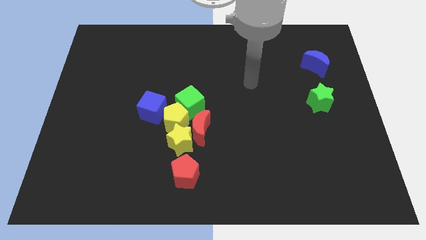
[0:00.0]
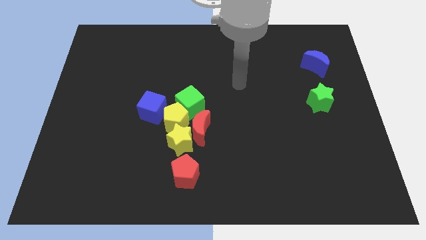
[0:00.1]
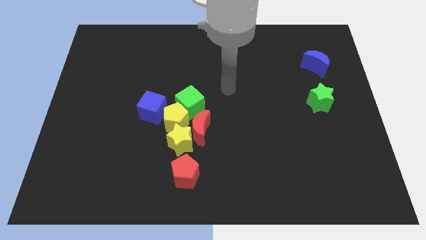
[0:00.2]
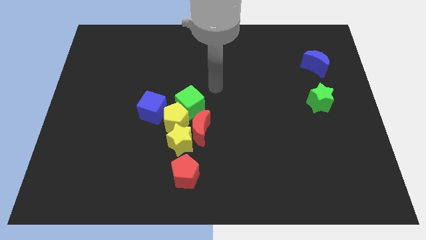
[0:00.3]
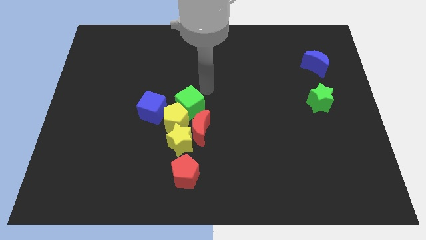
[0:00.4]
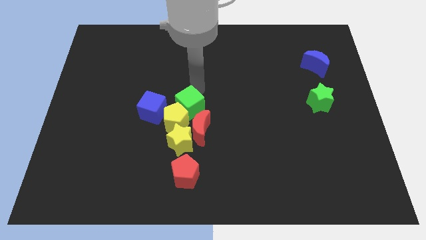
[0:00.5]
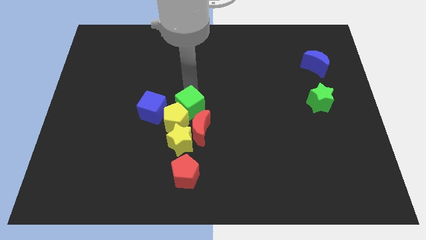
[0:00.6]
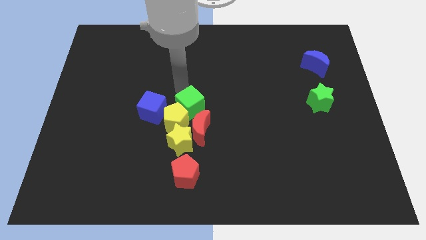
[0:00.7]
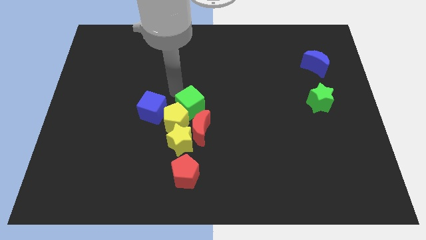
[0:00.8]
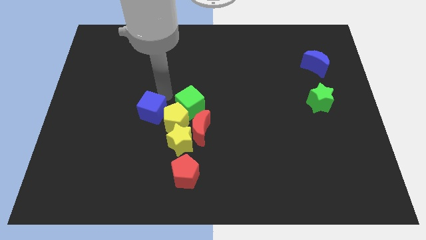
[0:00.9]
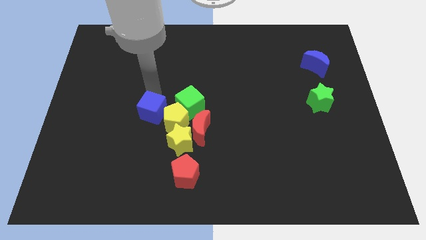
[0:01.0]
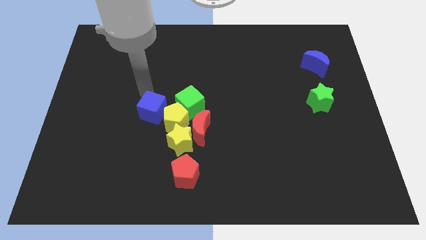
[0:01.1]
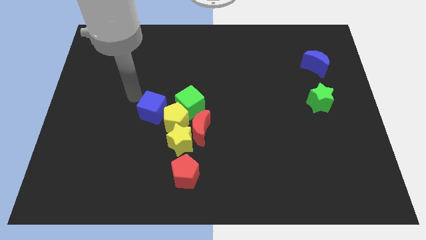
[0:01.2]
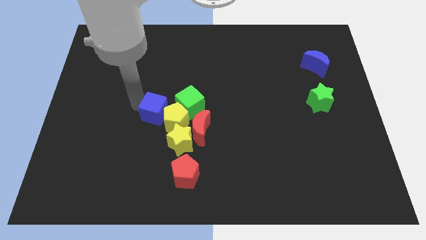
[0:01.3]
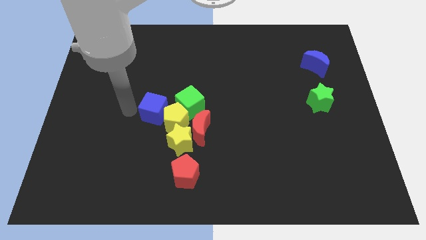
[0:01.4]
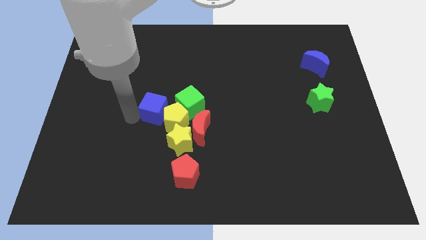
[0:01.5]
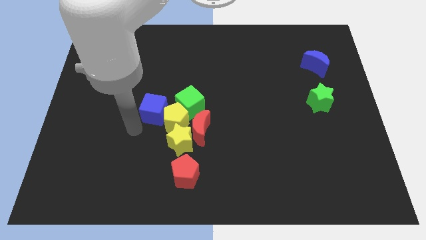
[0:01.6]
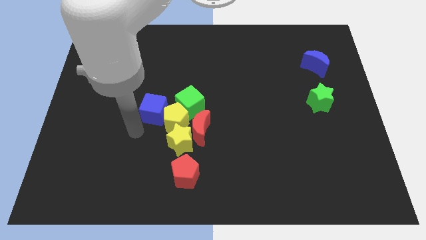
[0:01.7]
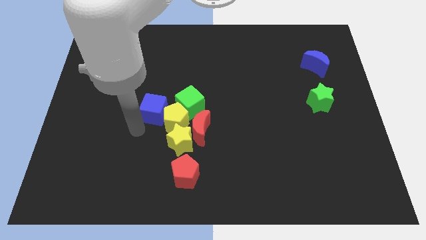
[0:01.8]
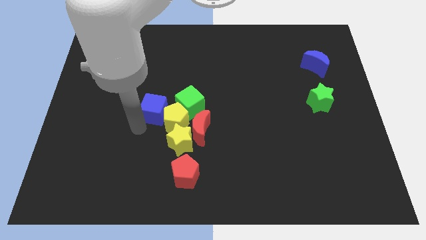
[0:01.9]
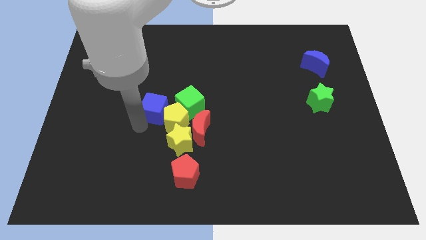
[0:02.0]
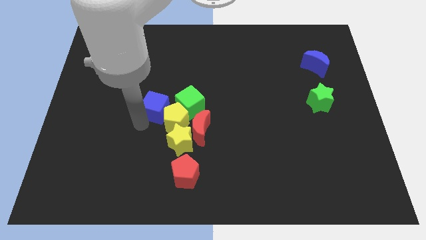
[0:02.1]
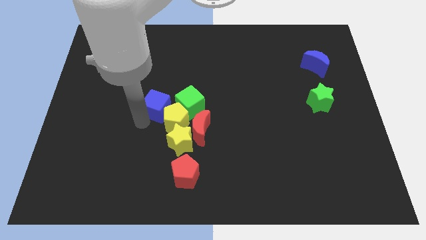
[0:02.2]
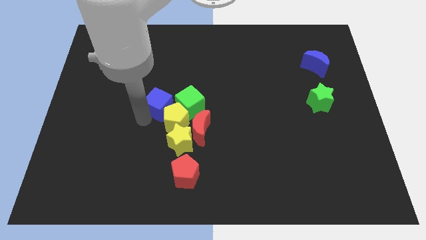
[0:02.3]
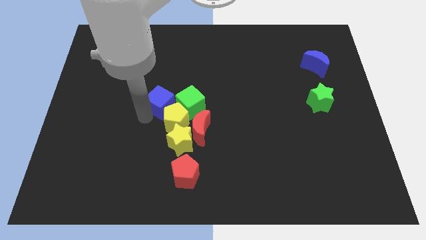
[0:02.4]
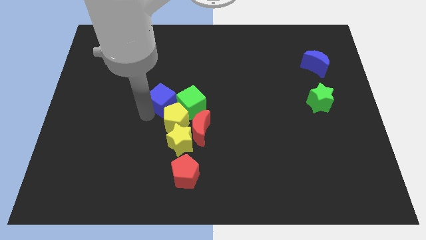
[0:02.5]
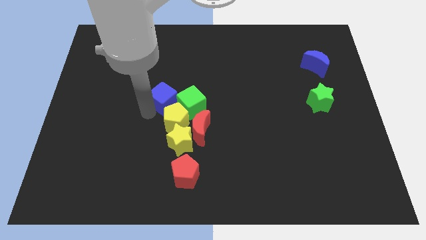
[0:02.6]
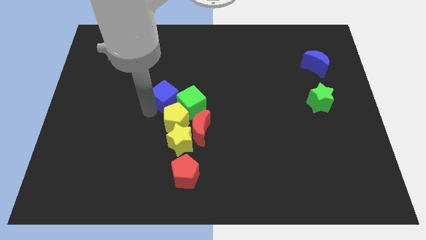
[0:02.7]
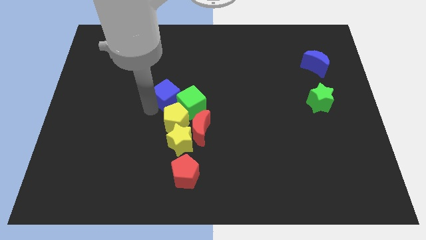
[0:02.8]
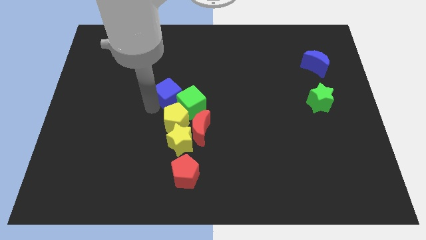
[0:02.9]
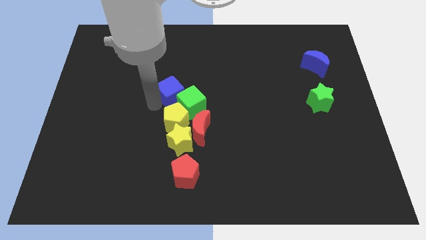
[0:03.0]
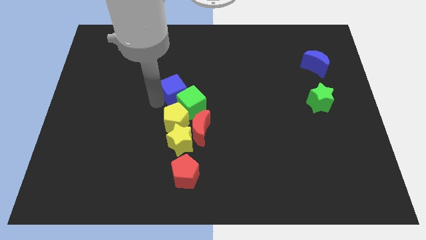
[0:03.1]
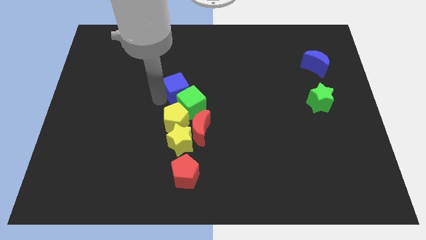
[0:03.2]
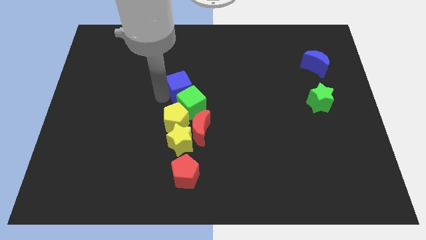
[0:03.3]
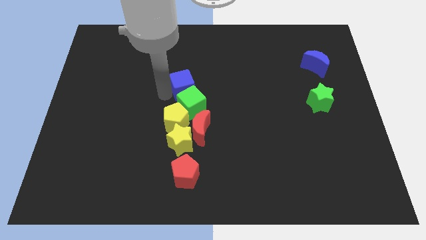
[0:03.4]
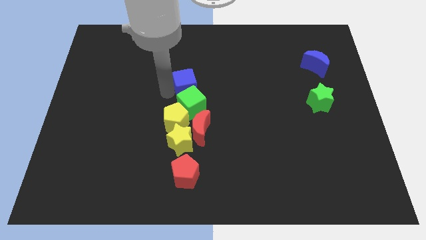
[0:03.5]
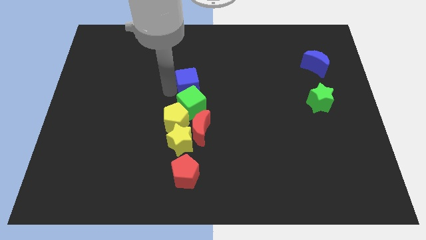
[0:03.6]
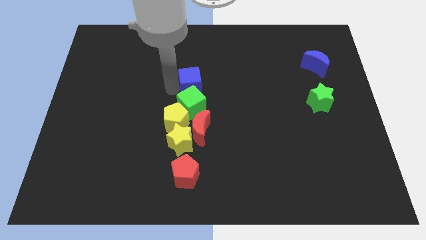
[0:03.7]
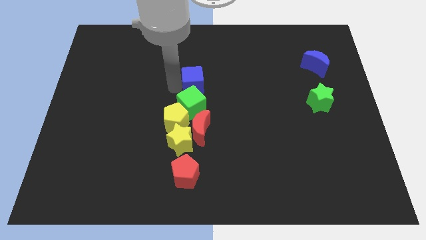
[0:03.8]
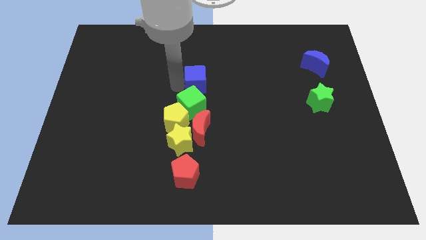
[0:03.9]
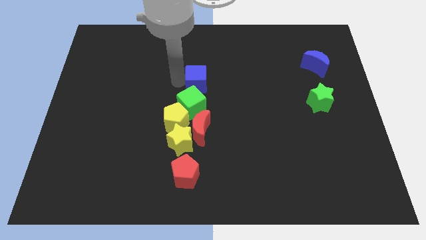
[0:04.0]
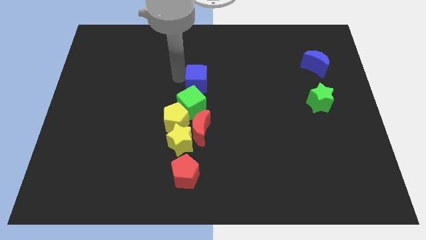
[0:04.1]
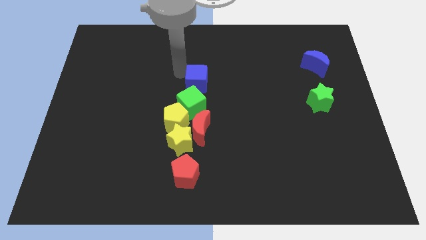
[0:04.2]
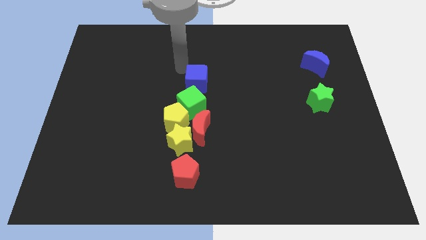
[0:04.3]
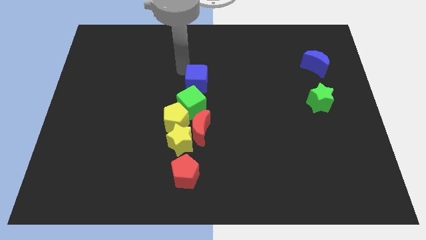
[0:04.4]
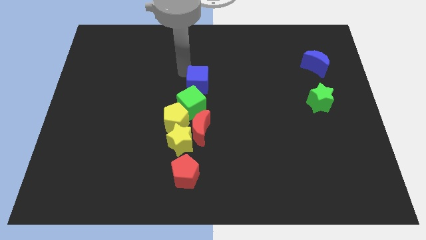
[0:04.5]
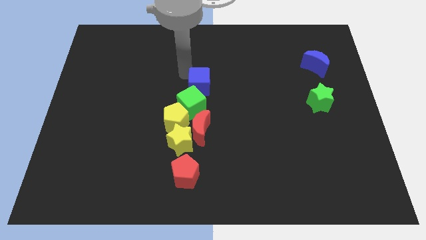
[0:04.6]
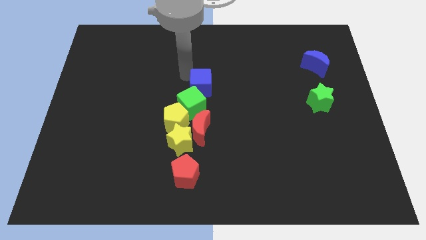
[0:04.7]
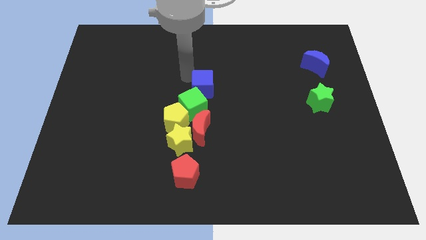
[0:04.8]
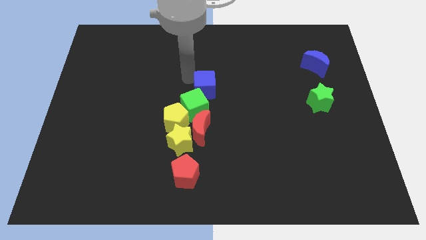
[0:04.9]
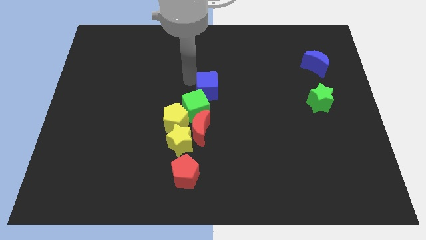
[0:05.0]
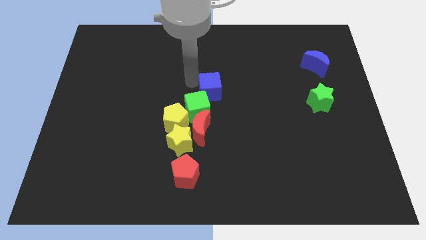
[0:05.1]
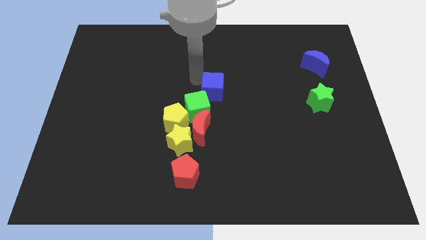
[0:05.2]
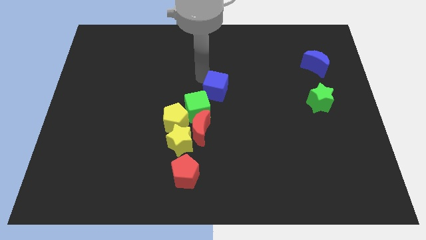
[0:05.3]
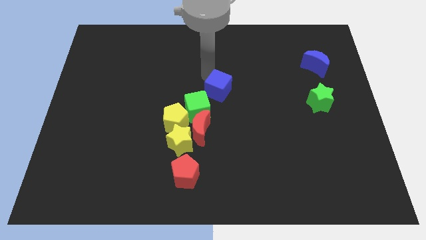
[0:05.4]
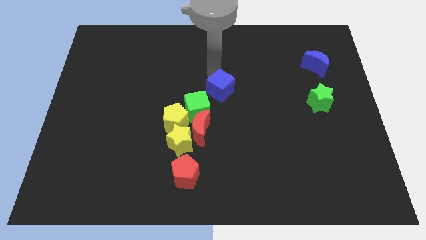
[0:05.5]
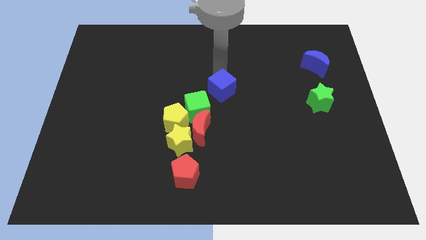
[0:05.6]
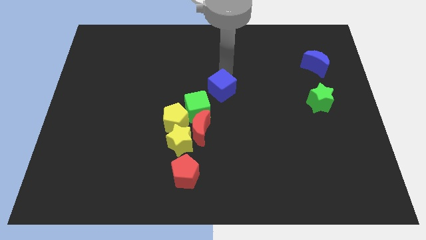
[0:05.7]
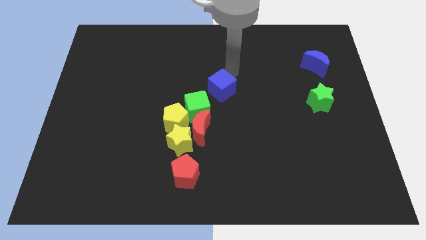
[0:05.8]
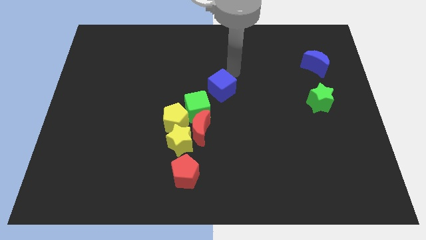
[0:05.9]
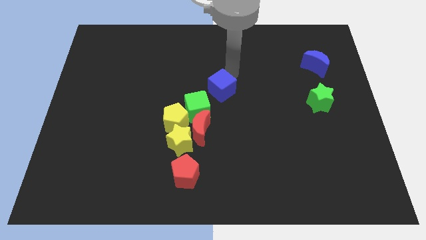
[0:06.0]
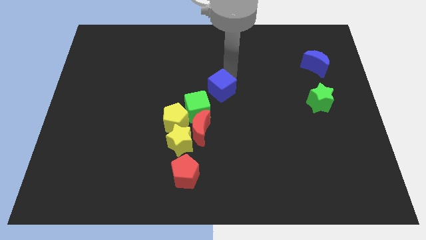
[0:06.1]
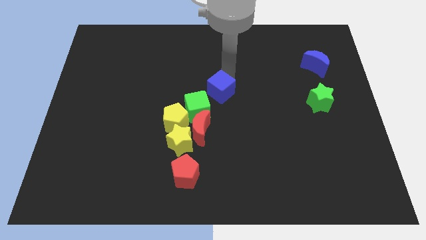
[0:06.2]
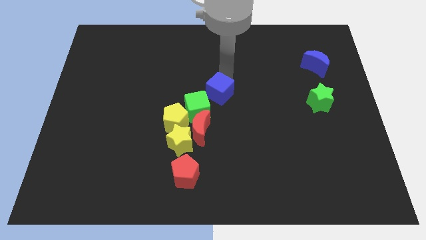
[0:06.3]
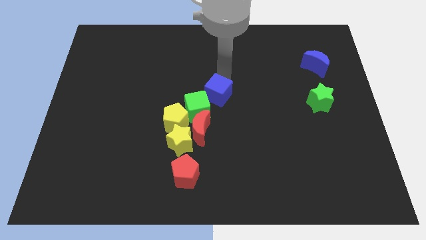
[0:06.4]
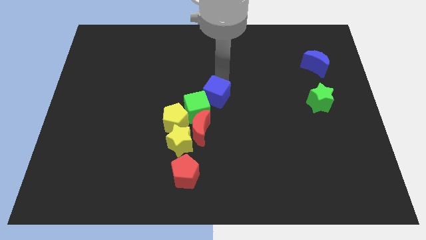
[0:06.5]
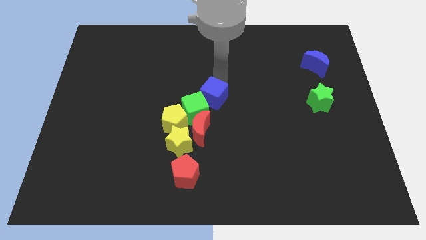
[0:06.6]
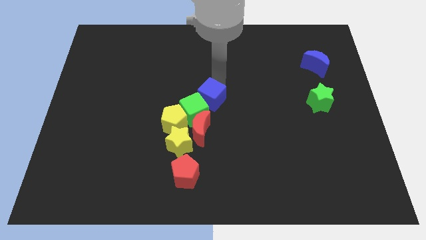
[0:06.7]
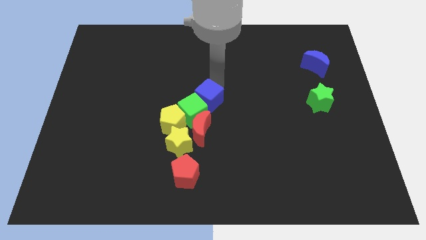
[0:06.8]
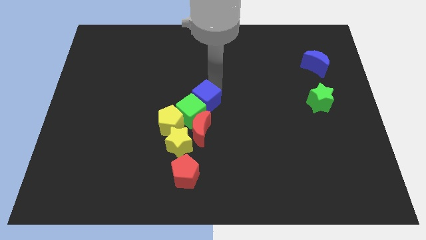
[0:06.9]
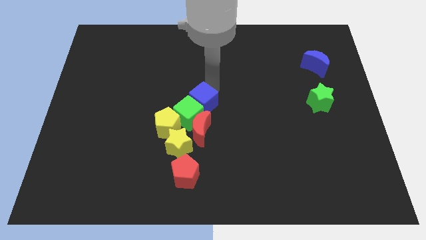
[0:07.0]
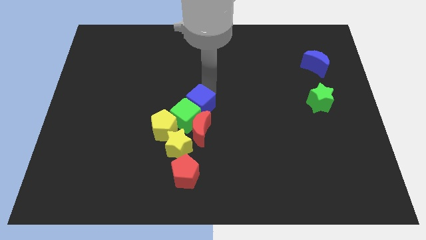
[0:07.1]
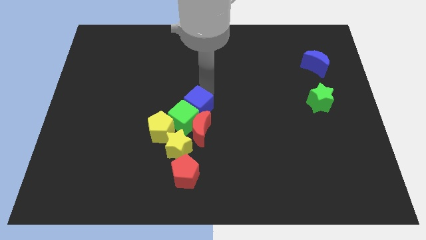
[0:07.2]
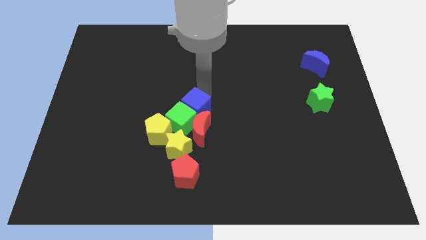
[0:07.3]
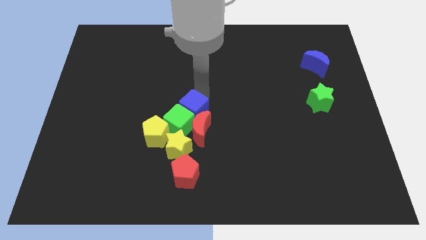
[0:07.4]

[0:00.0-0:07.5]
put the blue cube next to the red moon
